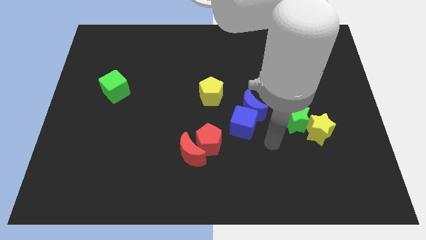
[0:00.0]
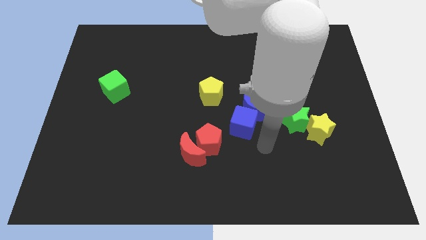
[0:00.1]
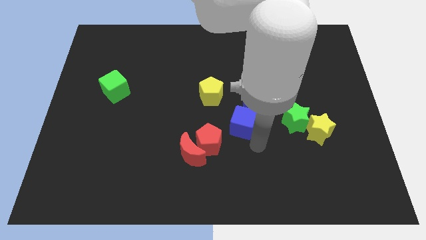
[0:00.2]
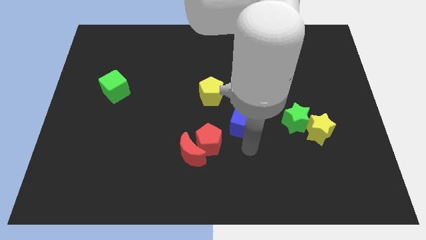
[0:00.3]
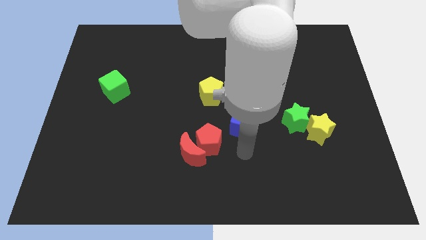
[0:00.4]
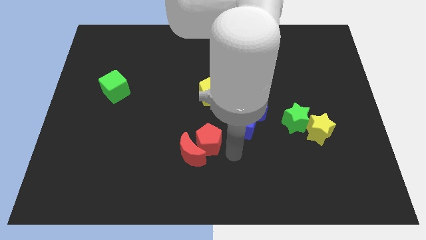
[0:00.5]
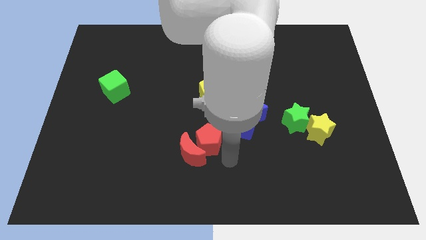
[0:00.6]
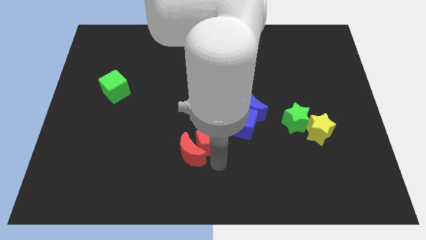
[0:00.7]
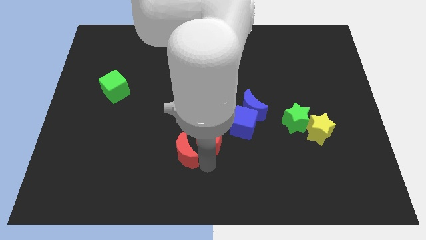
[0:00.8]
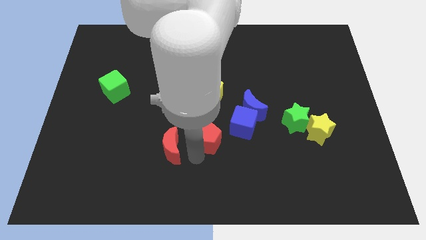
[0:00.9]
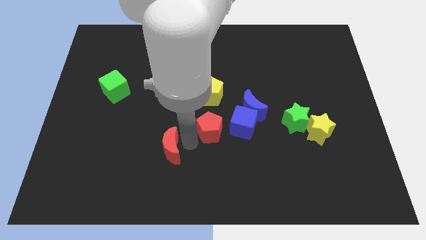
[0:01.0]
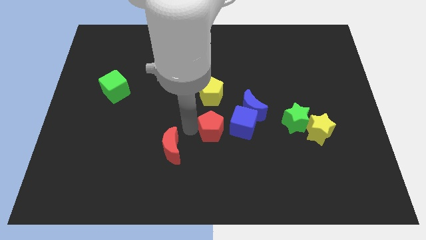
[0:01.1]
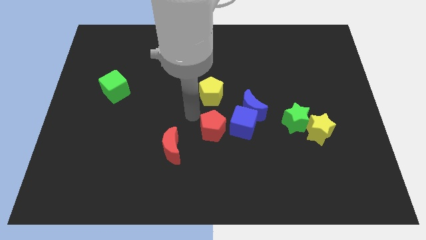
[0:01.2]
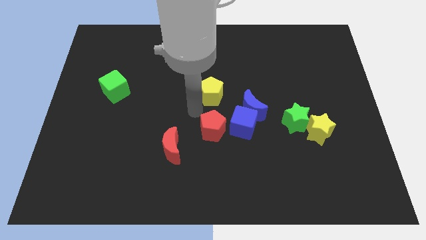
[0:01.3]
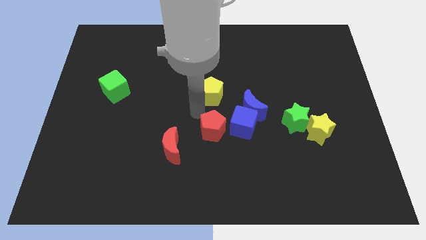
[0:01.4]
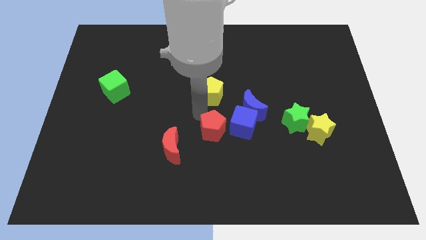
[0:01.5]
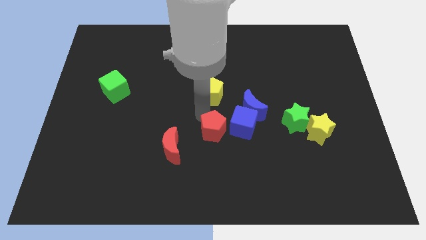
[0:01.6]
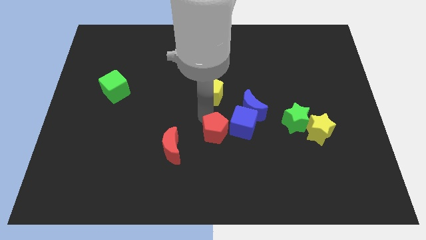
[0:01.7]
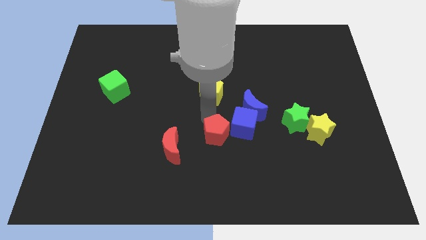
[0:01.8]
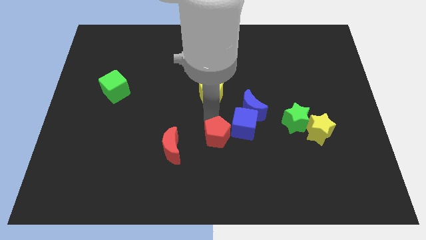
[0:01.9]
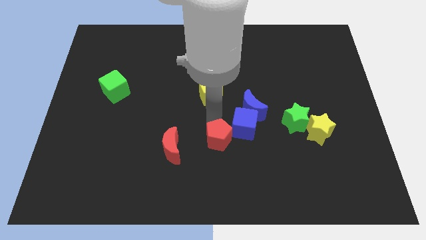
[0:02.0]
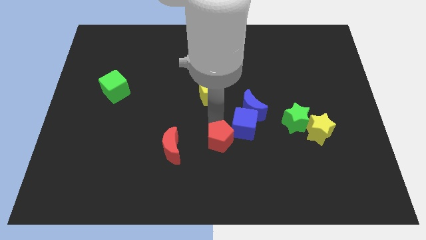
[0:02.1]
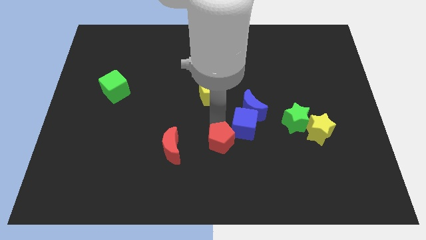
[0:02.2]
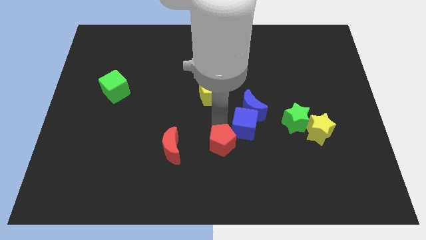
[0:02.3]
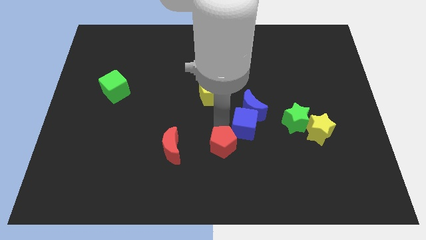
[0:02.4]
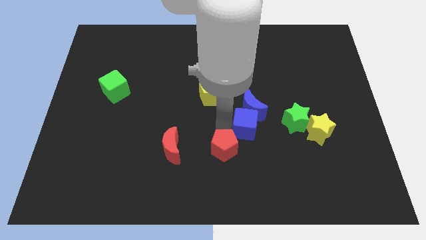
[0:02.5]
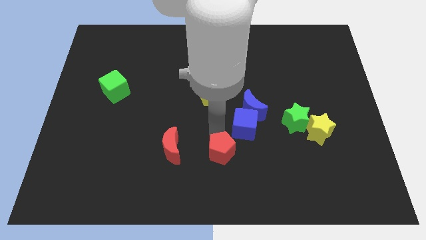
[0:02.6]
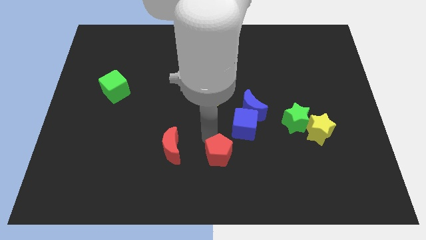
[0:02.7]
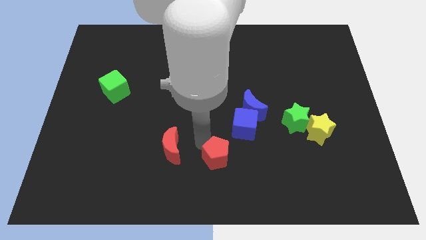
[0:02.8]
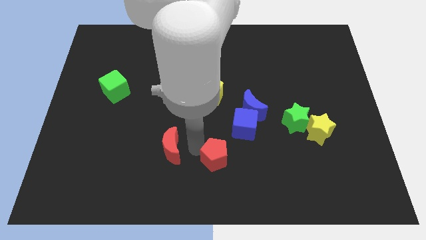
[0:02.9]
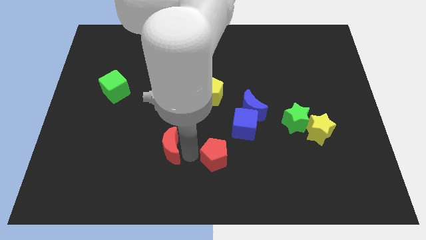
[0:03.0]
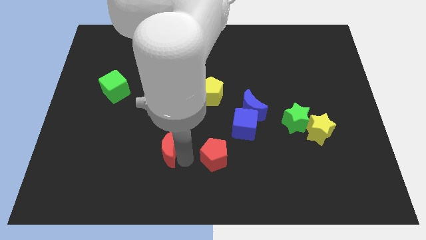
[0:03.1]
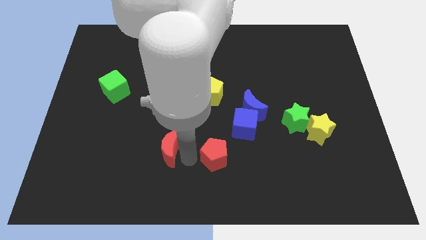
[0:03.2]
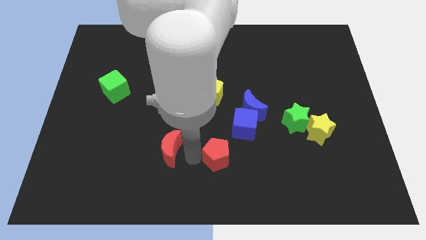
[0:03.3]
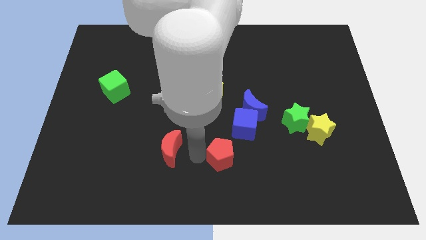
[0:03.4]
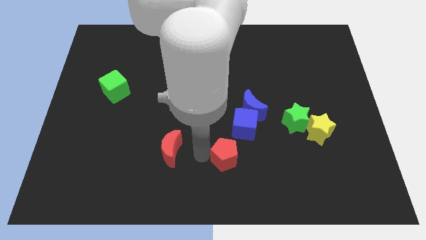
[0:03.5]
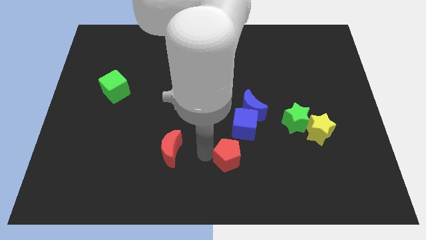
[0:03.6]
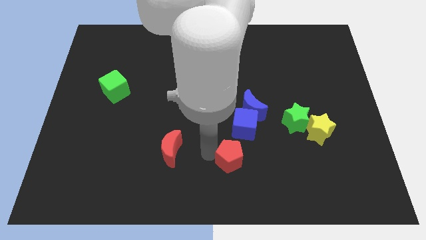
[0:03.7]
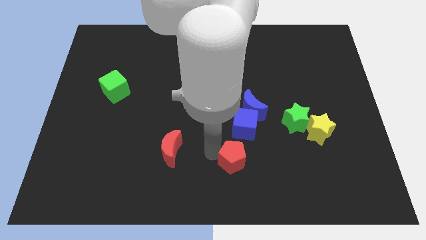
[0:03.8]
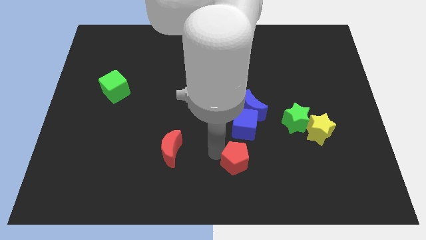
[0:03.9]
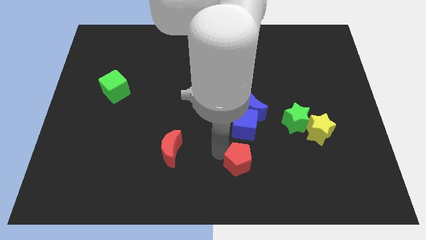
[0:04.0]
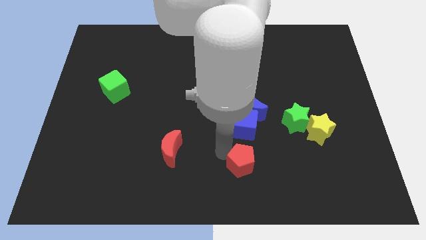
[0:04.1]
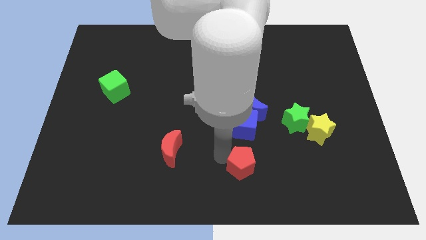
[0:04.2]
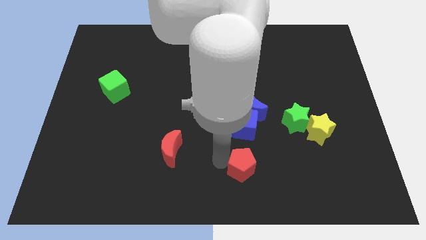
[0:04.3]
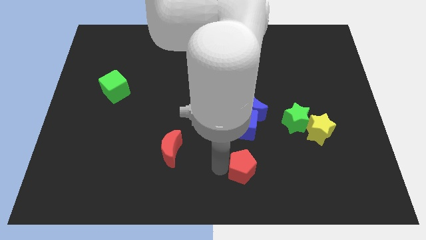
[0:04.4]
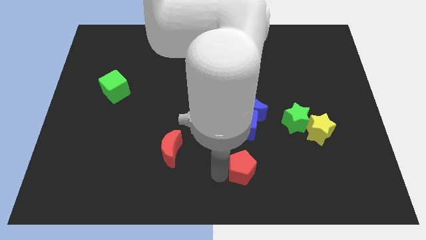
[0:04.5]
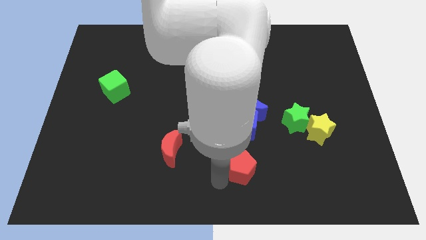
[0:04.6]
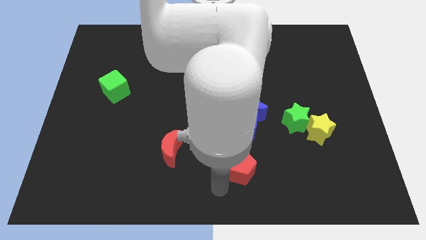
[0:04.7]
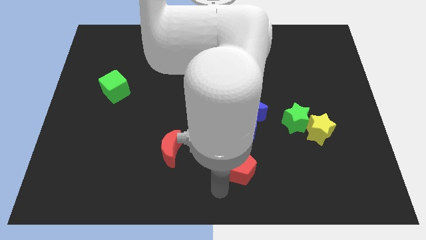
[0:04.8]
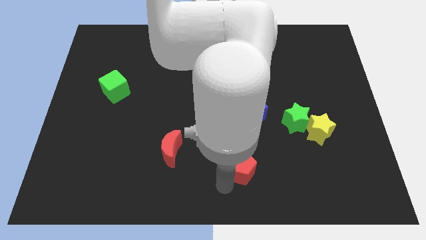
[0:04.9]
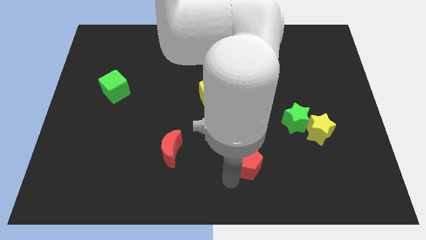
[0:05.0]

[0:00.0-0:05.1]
push the red pentagon a bit right

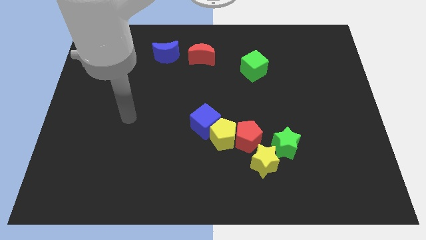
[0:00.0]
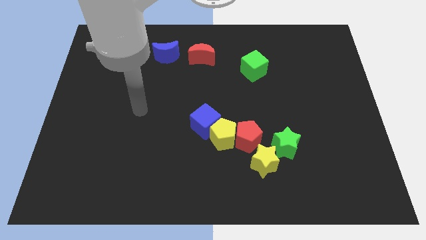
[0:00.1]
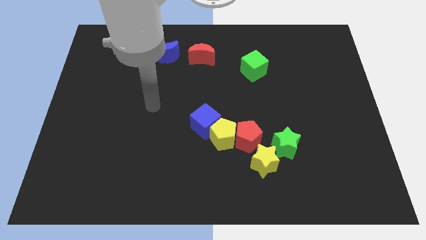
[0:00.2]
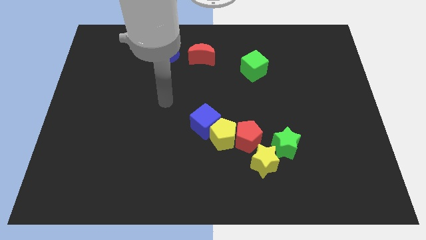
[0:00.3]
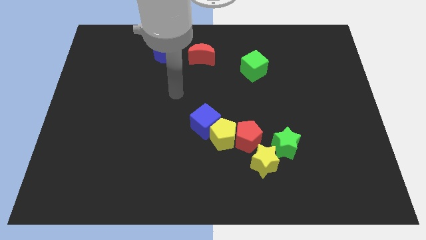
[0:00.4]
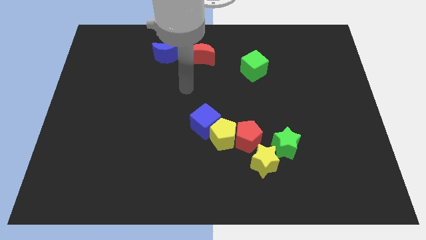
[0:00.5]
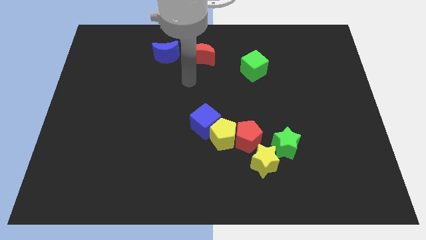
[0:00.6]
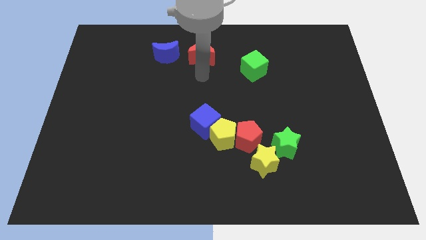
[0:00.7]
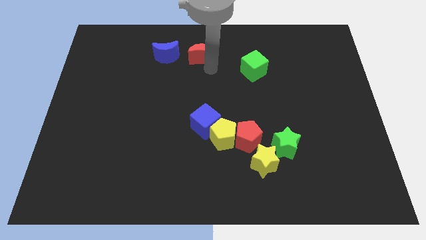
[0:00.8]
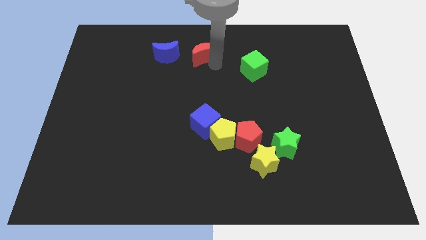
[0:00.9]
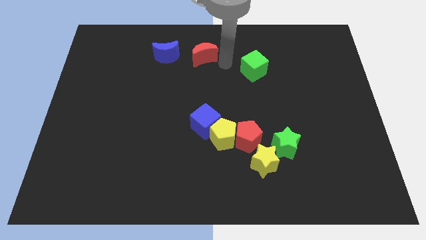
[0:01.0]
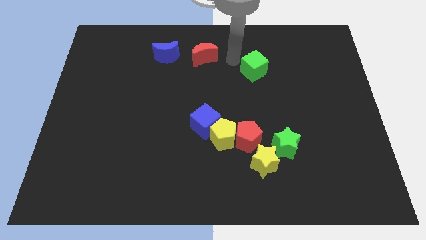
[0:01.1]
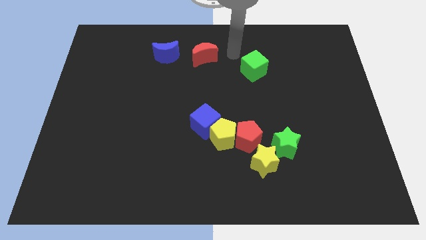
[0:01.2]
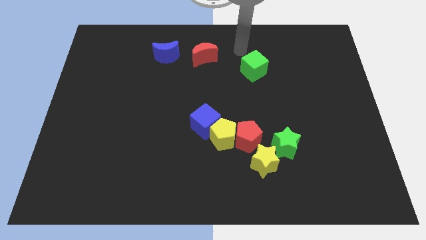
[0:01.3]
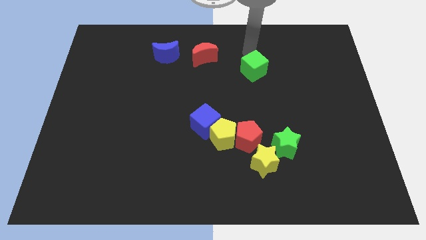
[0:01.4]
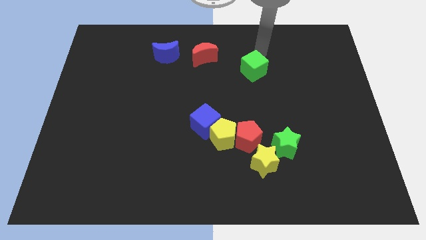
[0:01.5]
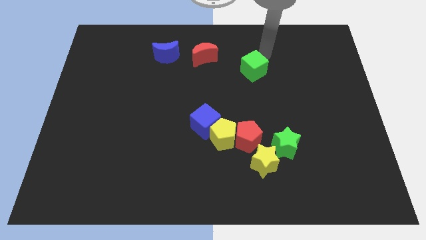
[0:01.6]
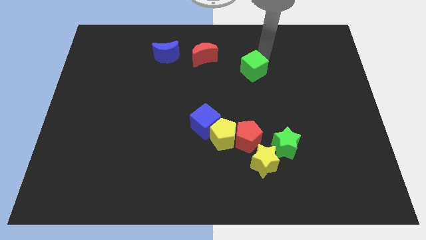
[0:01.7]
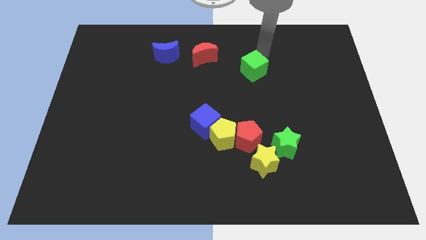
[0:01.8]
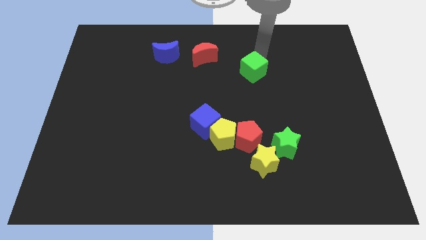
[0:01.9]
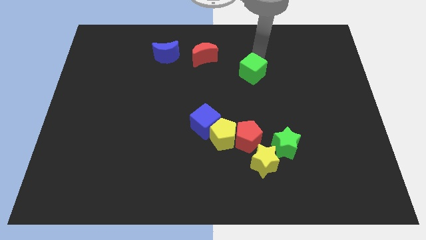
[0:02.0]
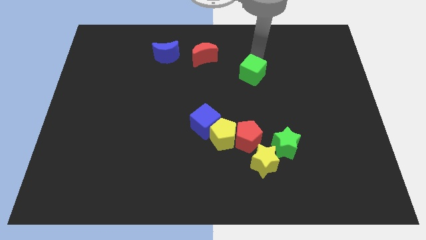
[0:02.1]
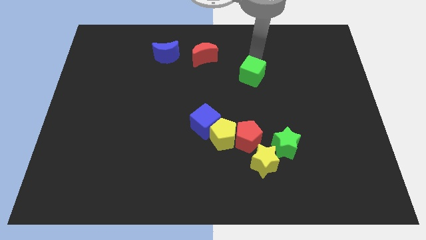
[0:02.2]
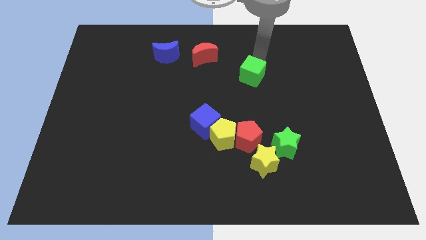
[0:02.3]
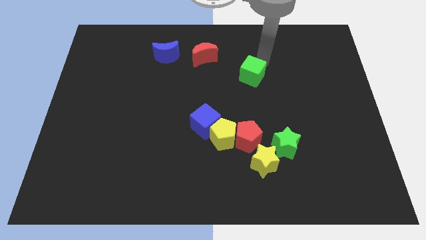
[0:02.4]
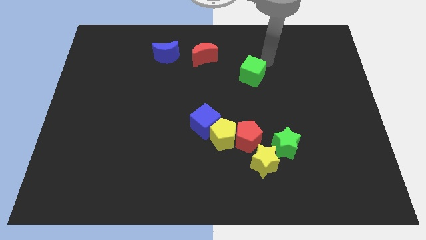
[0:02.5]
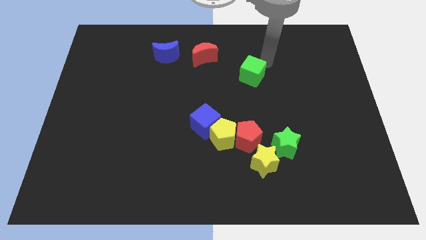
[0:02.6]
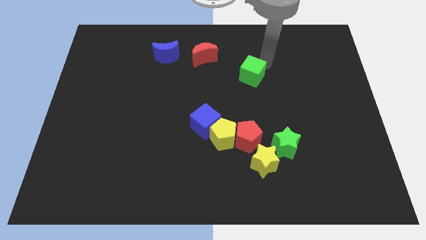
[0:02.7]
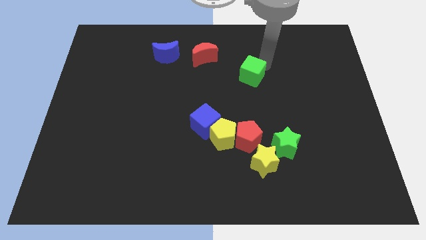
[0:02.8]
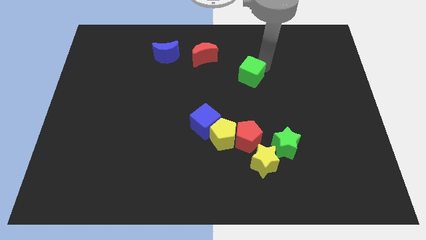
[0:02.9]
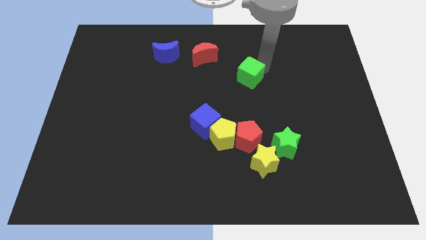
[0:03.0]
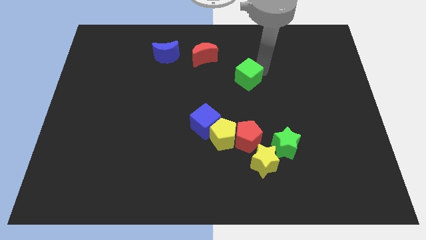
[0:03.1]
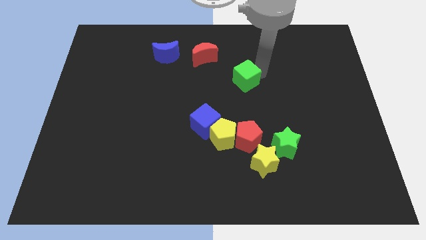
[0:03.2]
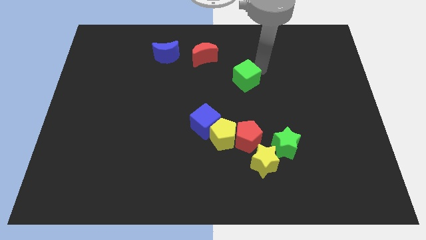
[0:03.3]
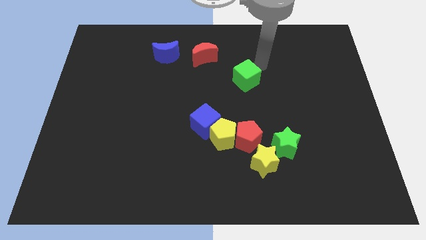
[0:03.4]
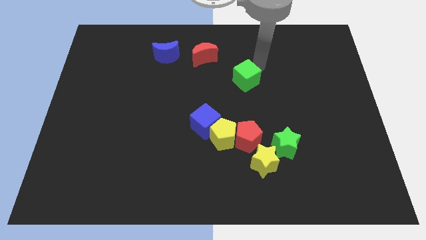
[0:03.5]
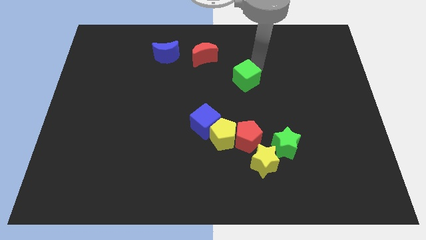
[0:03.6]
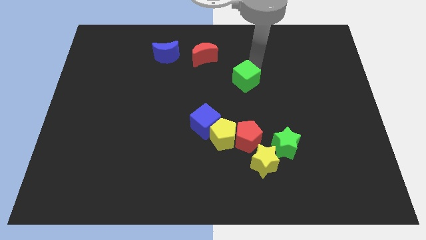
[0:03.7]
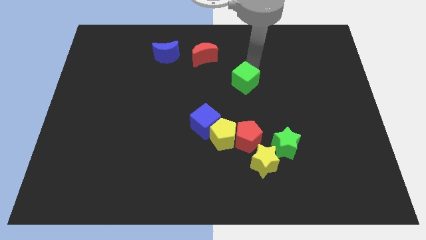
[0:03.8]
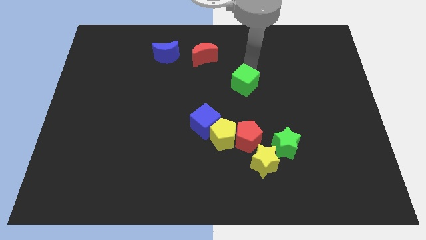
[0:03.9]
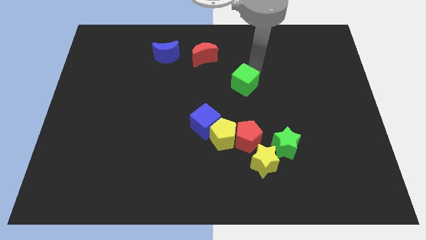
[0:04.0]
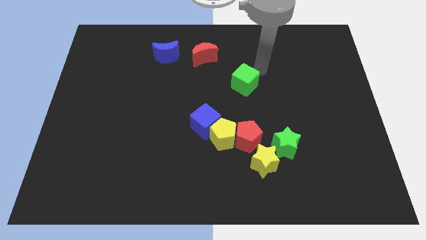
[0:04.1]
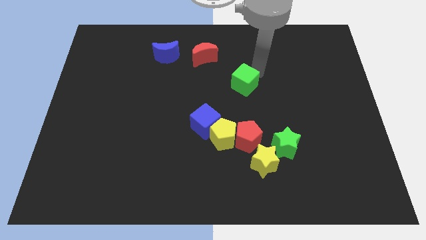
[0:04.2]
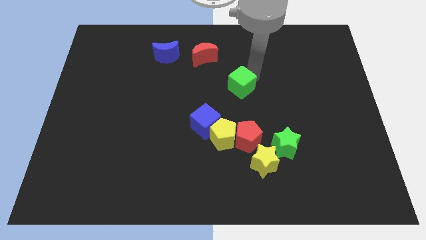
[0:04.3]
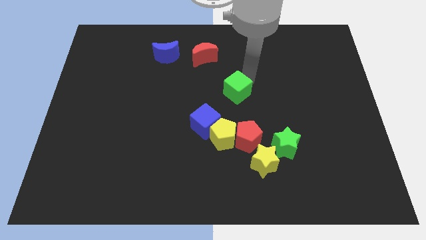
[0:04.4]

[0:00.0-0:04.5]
slightly slide the green cube downwards and to the left
